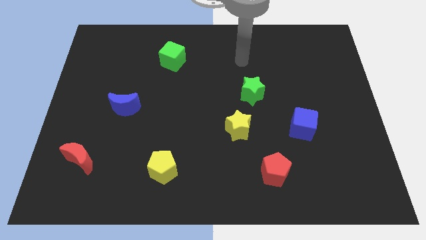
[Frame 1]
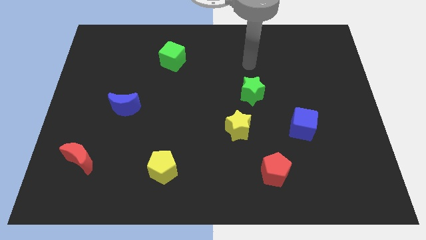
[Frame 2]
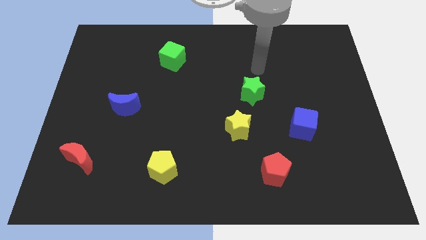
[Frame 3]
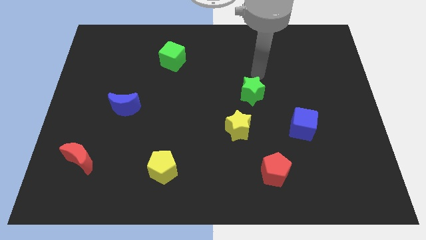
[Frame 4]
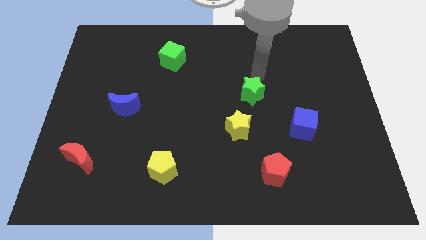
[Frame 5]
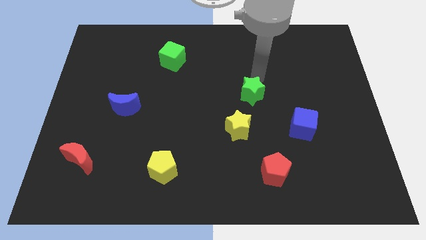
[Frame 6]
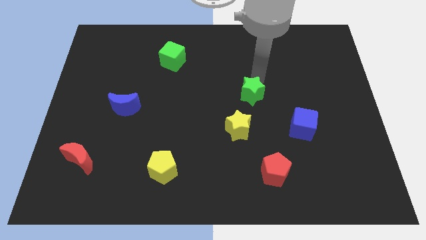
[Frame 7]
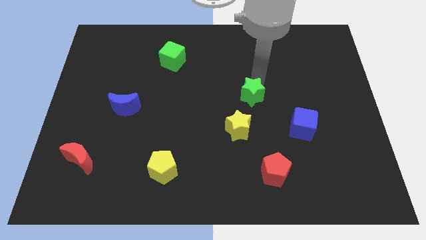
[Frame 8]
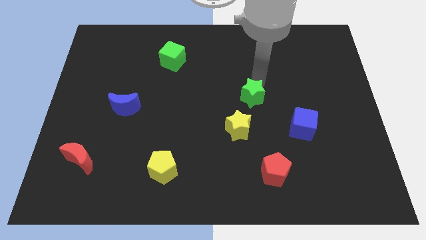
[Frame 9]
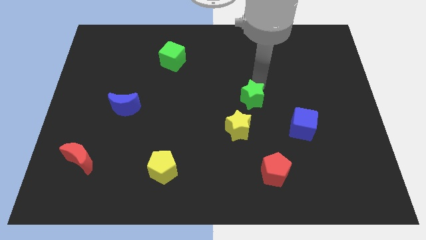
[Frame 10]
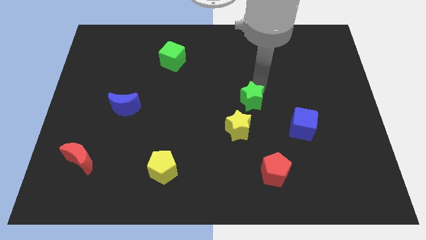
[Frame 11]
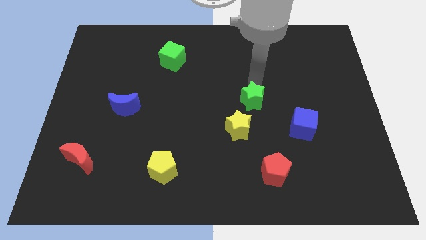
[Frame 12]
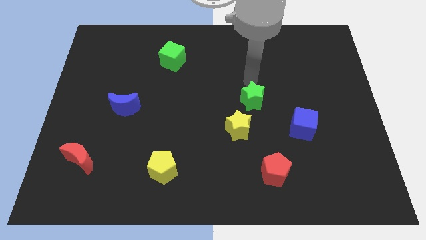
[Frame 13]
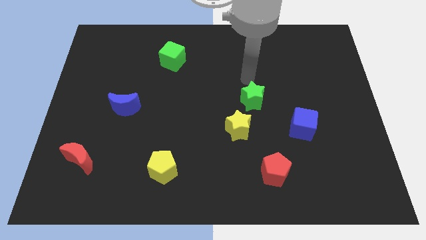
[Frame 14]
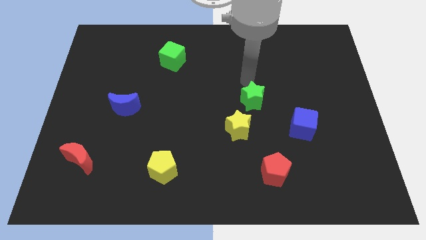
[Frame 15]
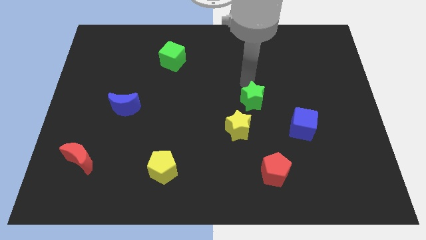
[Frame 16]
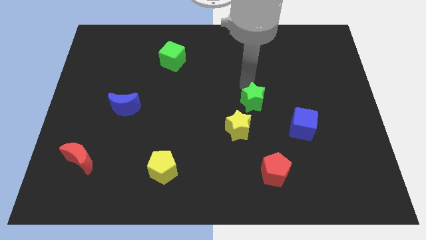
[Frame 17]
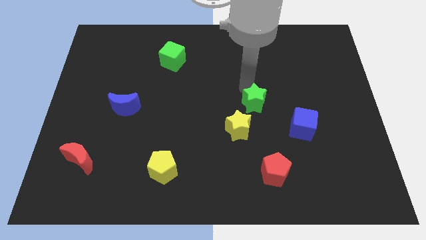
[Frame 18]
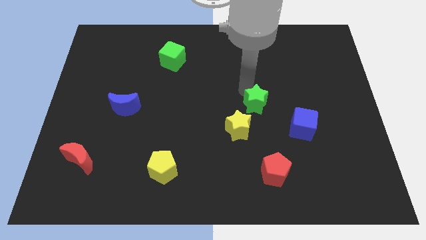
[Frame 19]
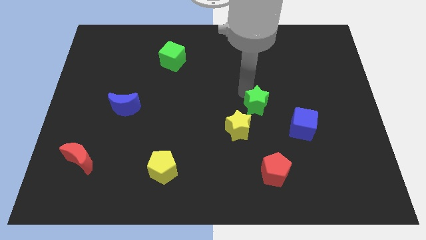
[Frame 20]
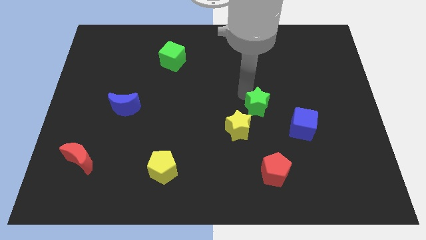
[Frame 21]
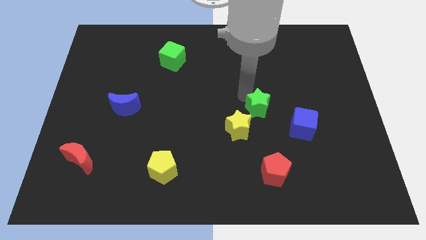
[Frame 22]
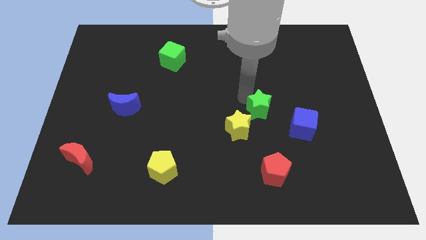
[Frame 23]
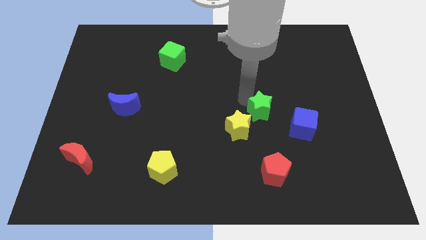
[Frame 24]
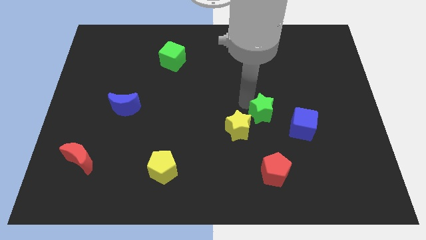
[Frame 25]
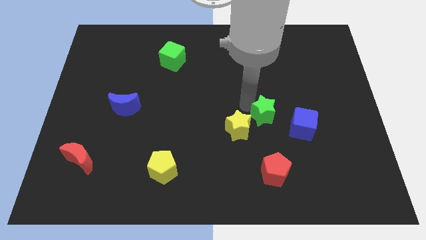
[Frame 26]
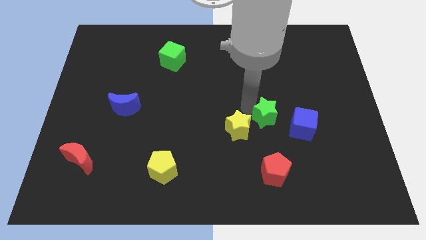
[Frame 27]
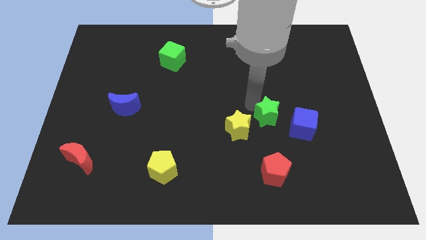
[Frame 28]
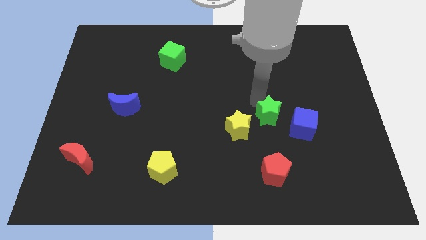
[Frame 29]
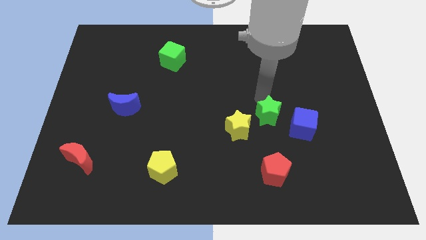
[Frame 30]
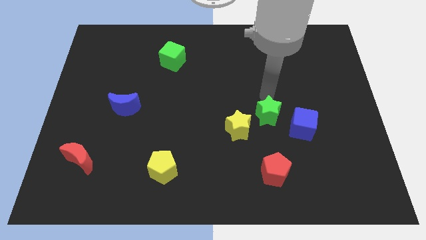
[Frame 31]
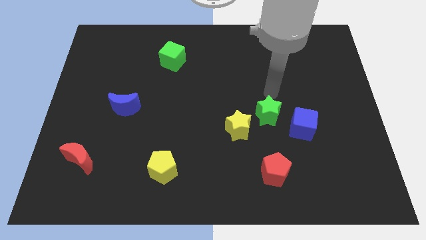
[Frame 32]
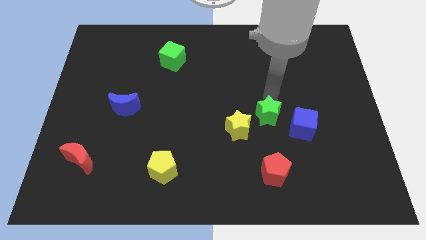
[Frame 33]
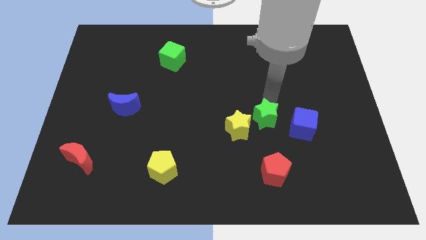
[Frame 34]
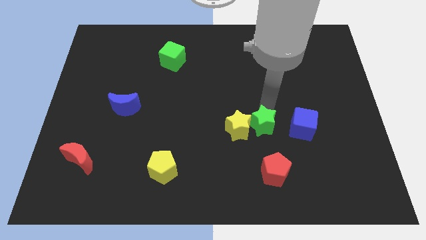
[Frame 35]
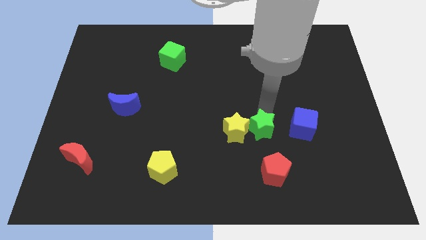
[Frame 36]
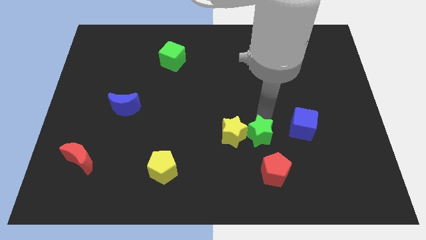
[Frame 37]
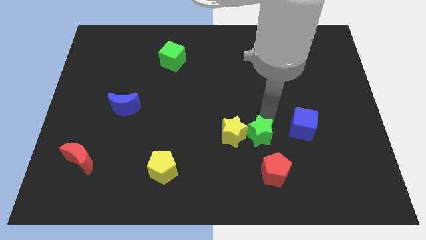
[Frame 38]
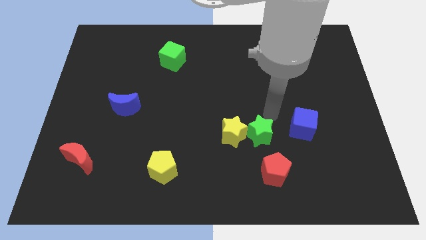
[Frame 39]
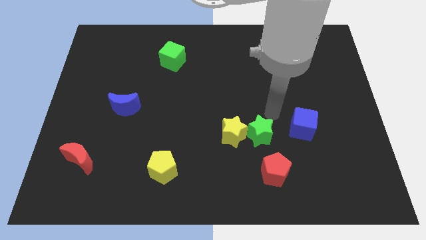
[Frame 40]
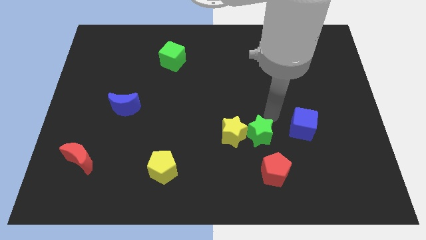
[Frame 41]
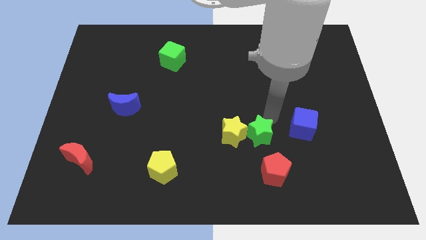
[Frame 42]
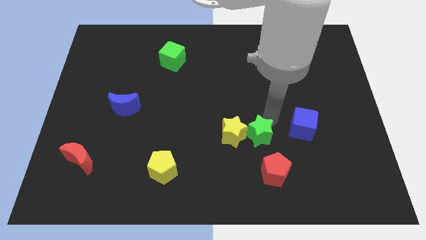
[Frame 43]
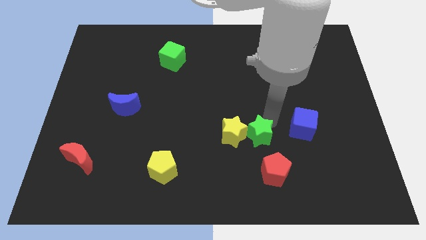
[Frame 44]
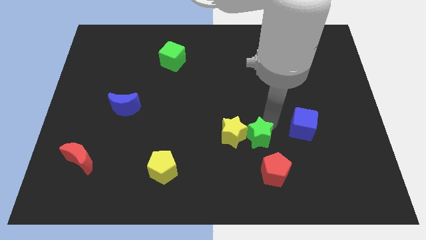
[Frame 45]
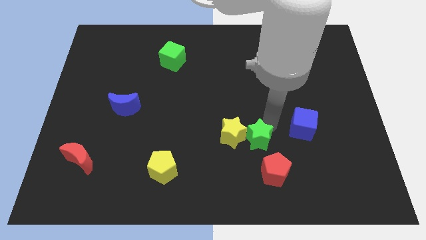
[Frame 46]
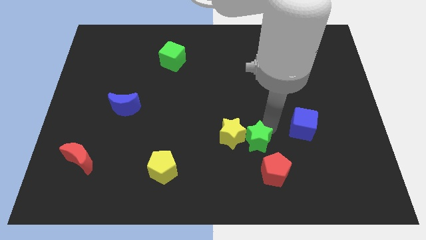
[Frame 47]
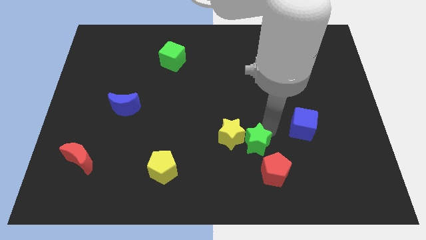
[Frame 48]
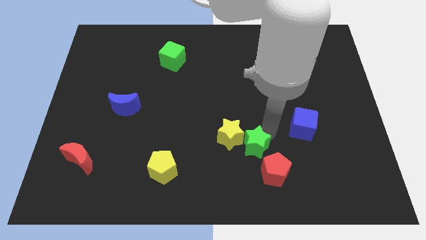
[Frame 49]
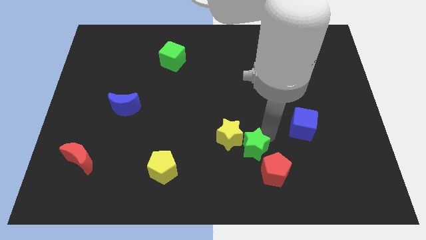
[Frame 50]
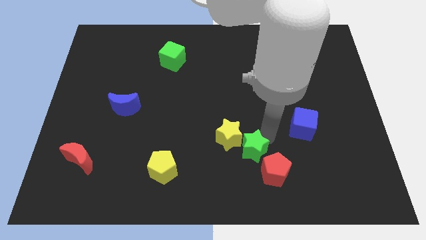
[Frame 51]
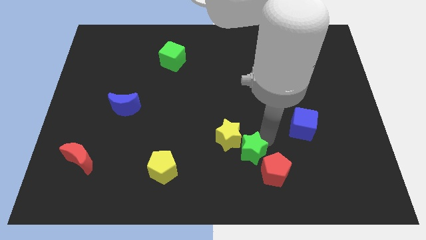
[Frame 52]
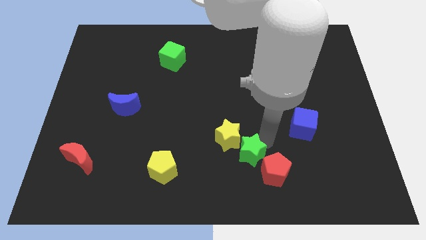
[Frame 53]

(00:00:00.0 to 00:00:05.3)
move the green star to the left side of the red pentagon

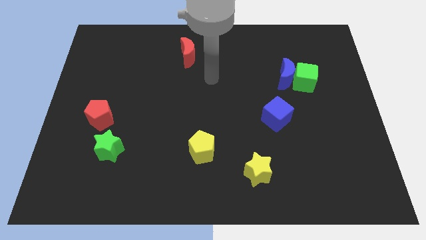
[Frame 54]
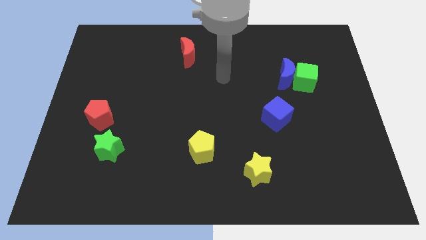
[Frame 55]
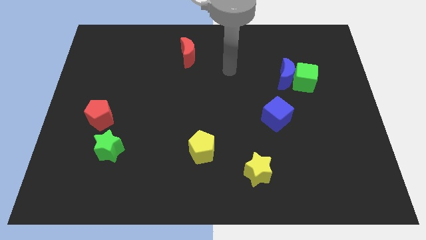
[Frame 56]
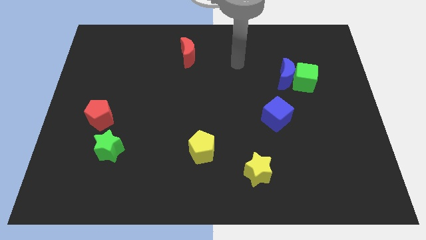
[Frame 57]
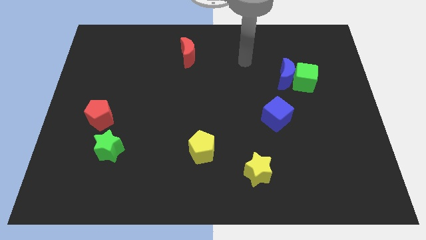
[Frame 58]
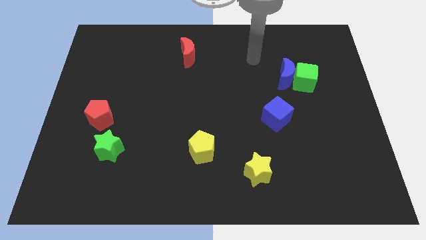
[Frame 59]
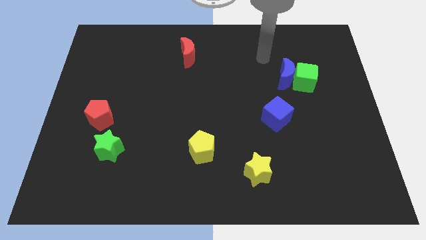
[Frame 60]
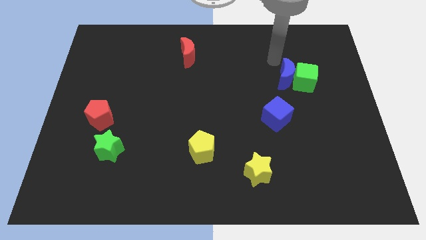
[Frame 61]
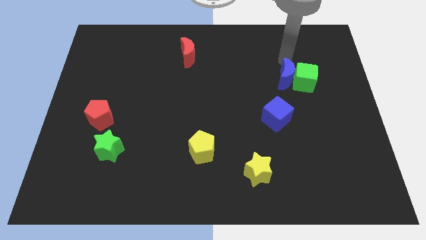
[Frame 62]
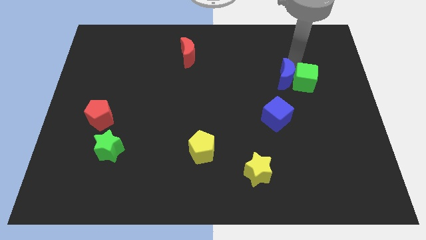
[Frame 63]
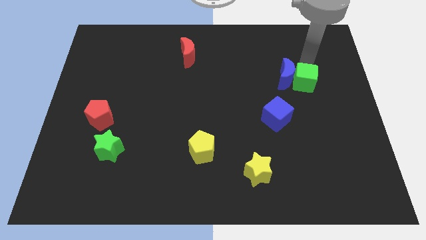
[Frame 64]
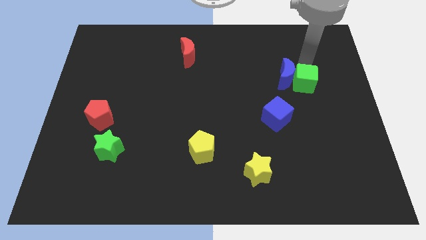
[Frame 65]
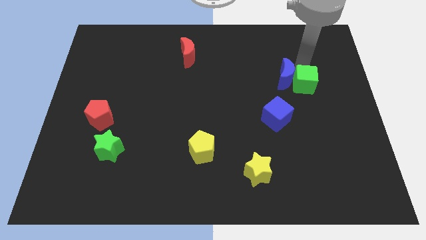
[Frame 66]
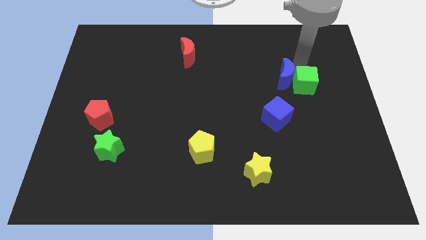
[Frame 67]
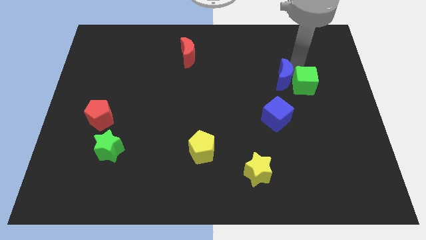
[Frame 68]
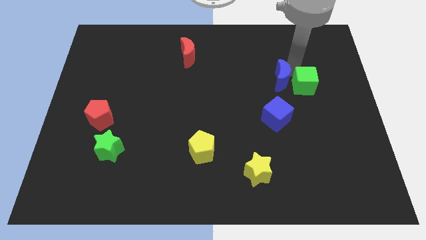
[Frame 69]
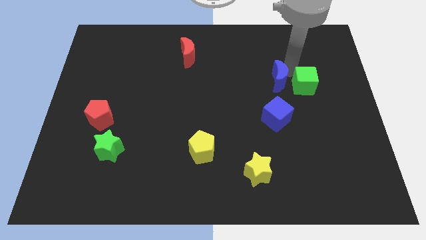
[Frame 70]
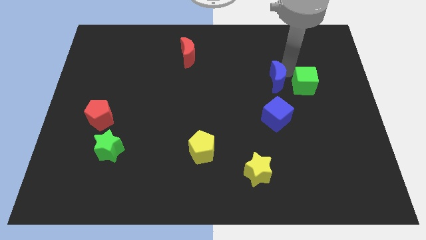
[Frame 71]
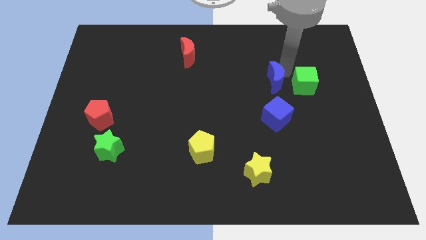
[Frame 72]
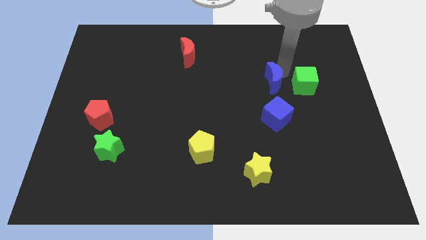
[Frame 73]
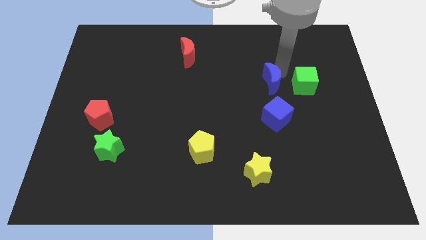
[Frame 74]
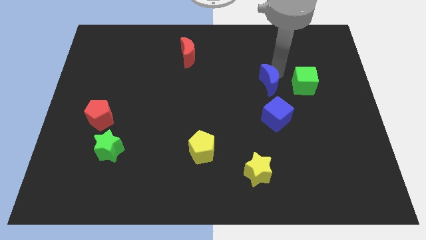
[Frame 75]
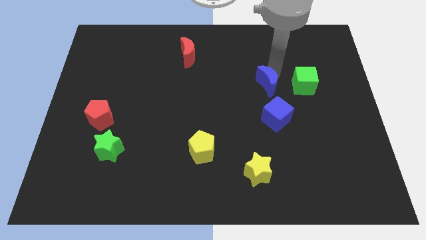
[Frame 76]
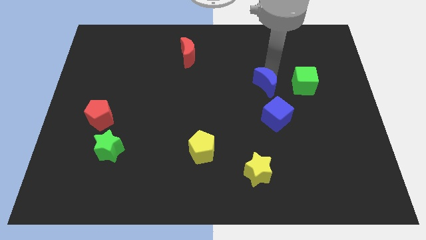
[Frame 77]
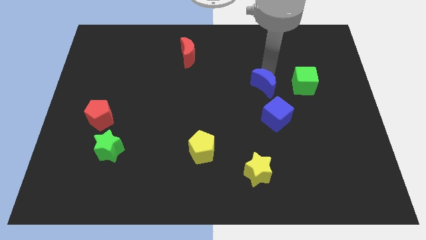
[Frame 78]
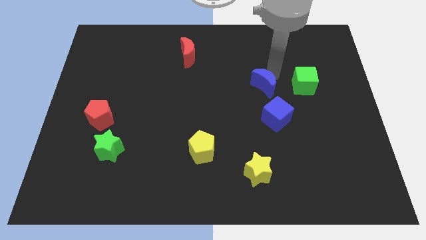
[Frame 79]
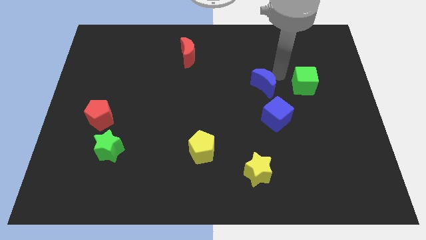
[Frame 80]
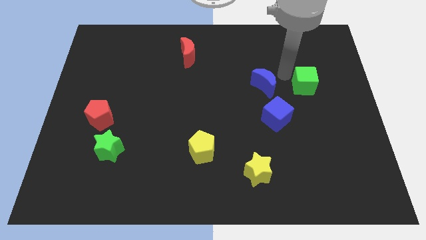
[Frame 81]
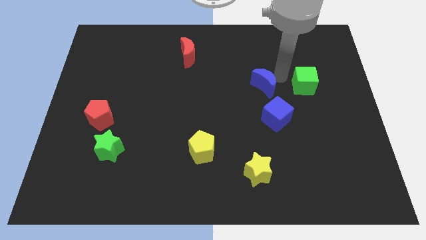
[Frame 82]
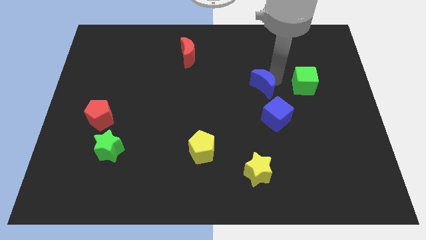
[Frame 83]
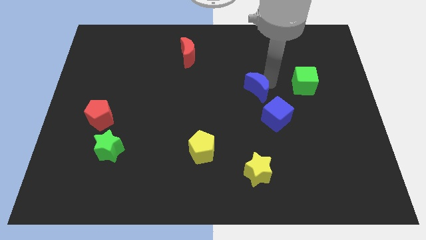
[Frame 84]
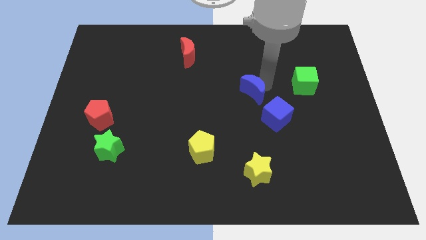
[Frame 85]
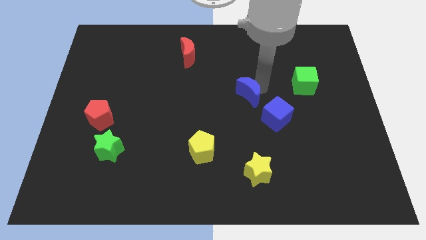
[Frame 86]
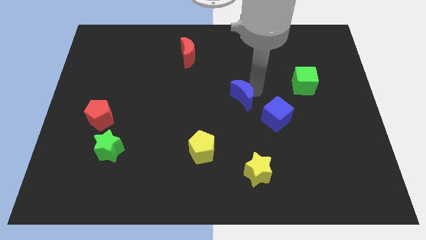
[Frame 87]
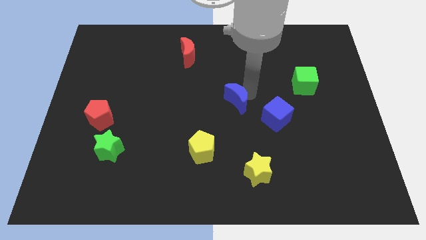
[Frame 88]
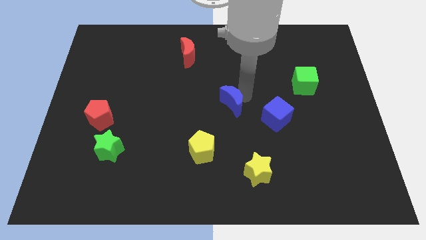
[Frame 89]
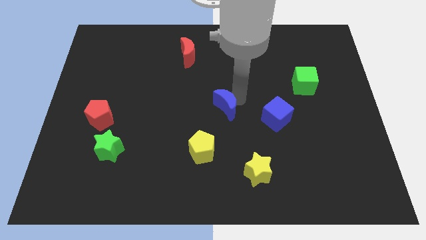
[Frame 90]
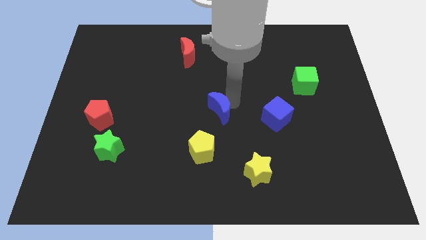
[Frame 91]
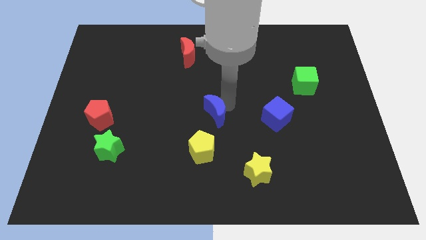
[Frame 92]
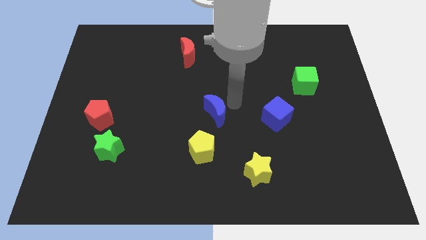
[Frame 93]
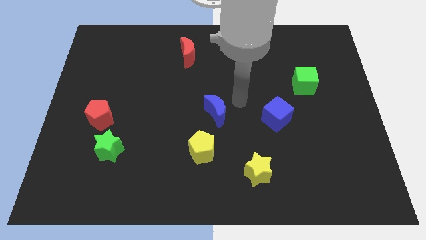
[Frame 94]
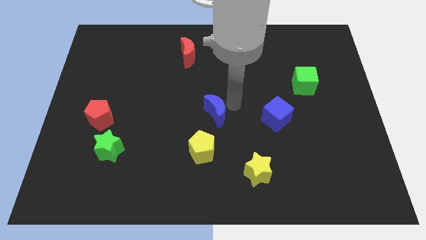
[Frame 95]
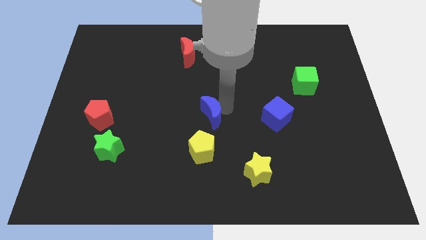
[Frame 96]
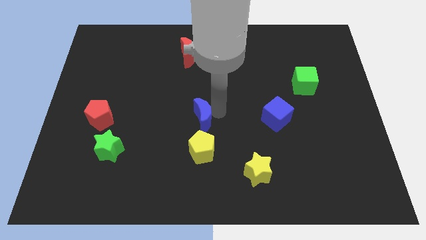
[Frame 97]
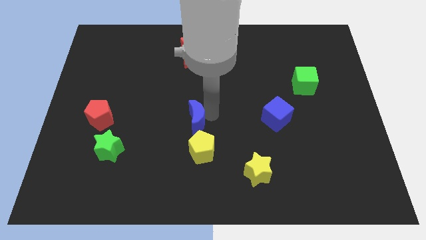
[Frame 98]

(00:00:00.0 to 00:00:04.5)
slide the blue moon to the top left side of the yellow pentagon
